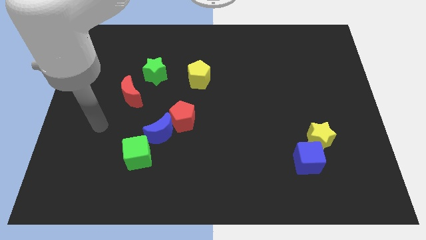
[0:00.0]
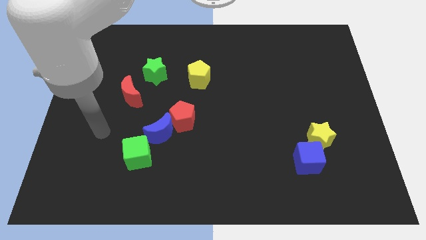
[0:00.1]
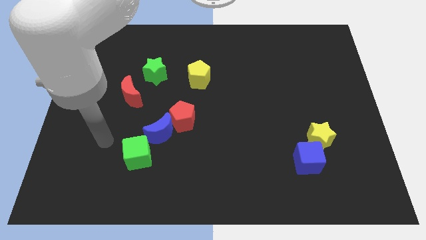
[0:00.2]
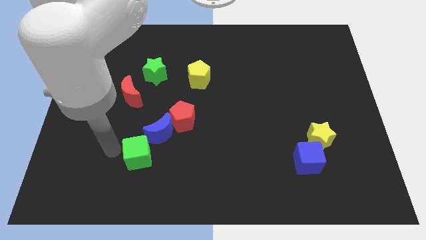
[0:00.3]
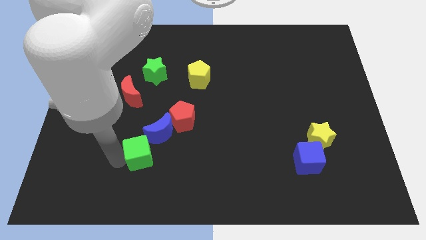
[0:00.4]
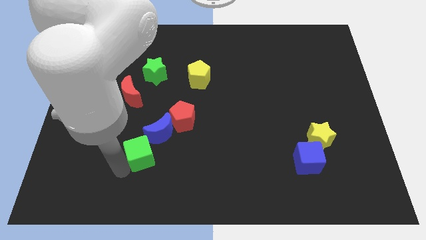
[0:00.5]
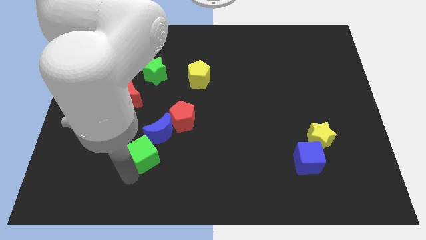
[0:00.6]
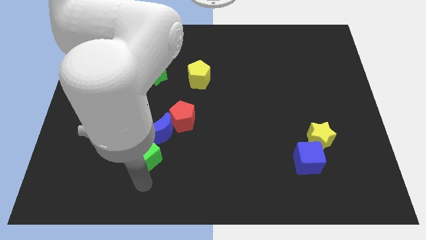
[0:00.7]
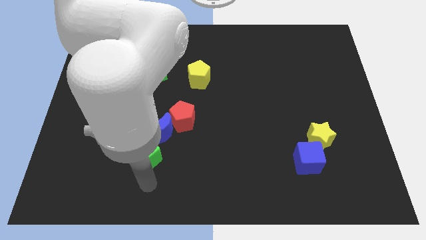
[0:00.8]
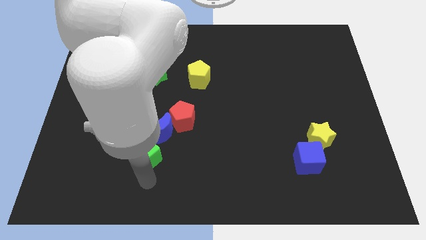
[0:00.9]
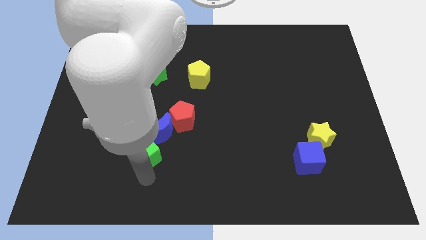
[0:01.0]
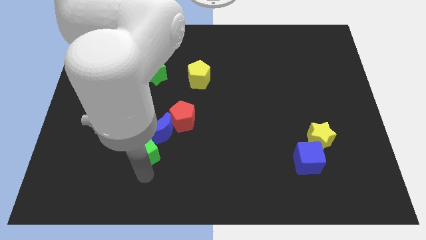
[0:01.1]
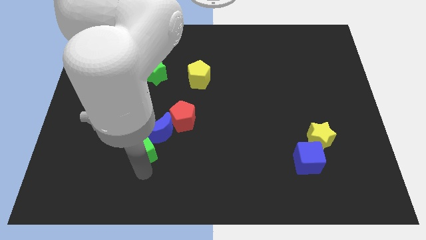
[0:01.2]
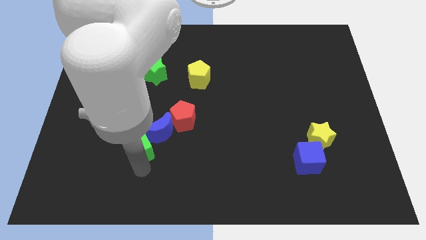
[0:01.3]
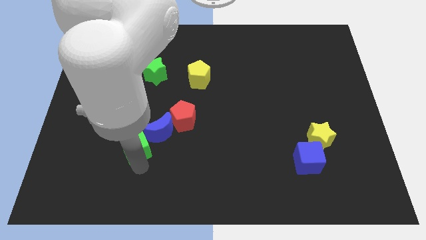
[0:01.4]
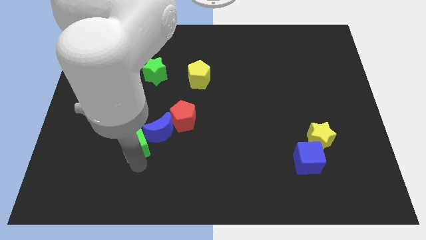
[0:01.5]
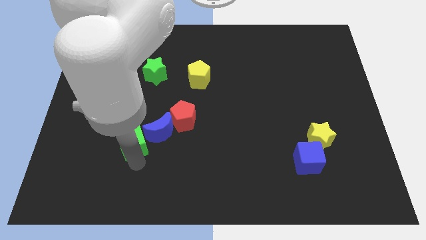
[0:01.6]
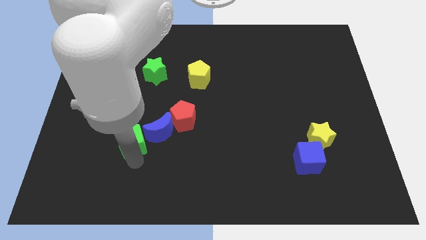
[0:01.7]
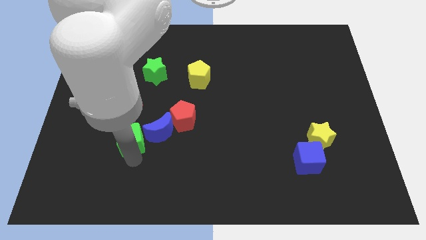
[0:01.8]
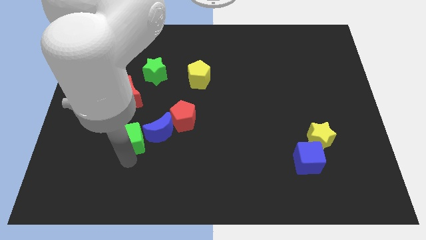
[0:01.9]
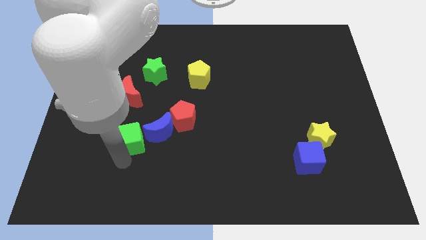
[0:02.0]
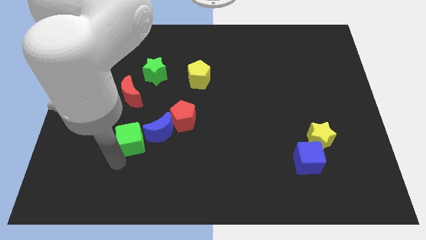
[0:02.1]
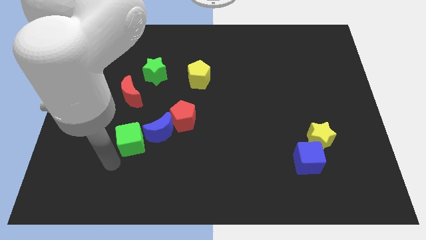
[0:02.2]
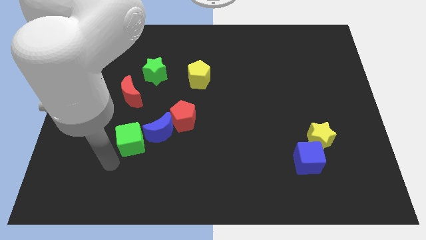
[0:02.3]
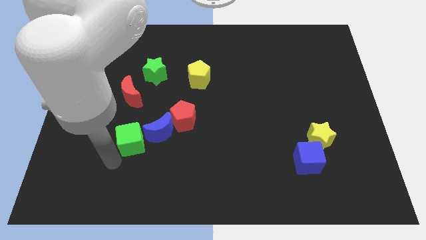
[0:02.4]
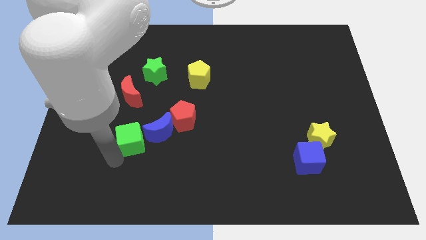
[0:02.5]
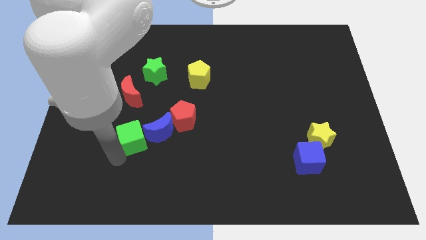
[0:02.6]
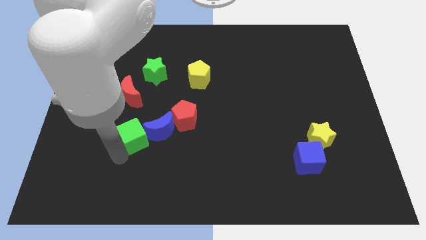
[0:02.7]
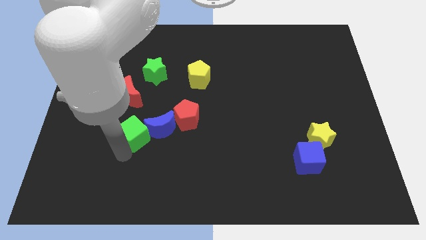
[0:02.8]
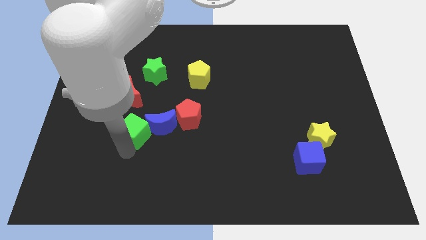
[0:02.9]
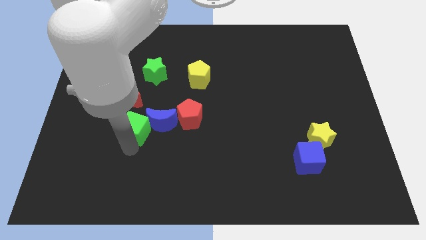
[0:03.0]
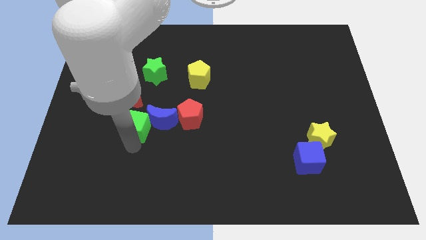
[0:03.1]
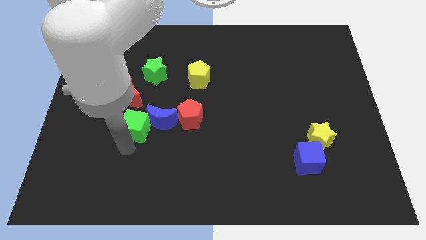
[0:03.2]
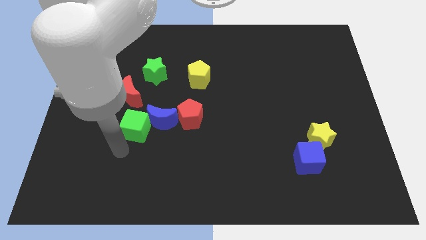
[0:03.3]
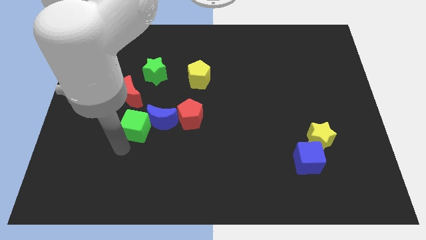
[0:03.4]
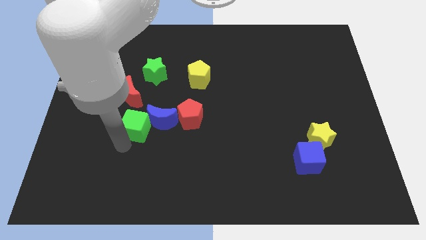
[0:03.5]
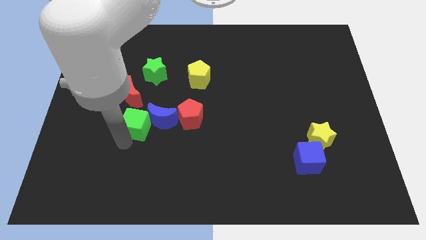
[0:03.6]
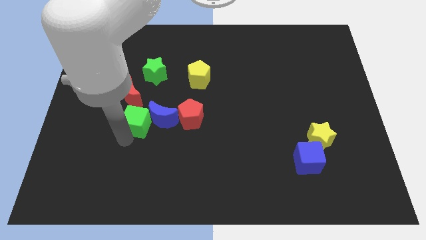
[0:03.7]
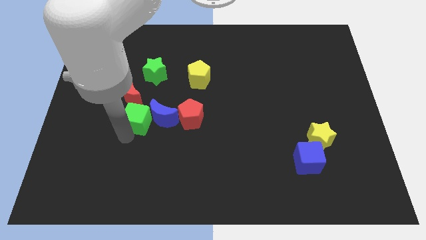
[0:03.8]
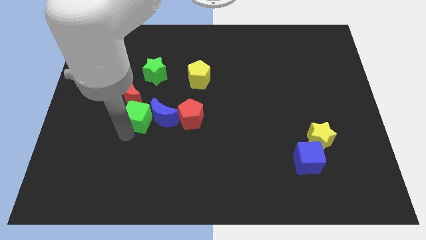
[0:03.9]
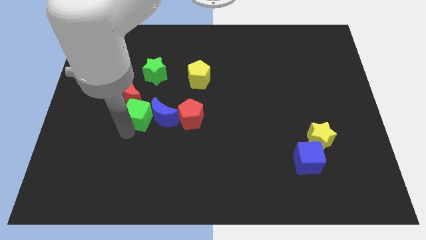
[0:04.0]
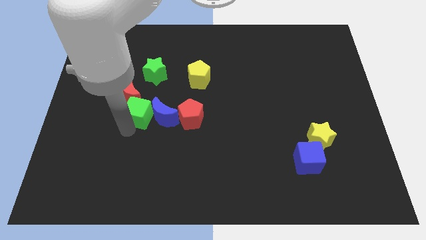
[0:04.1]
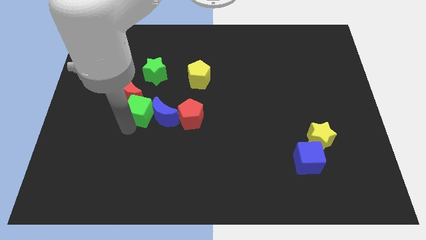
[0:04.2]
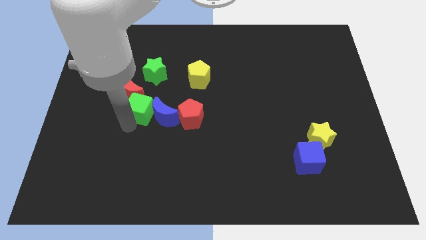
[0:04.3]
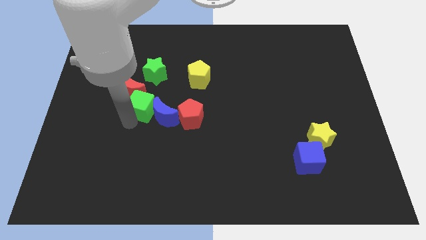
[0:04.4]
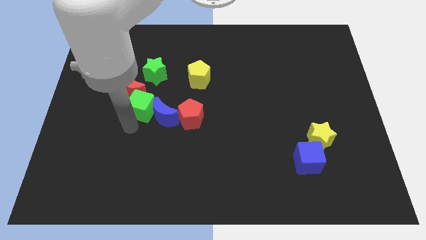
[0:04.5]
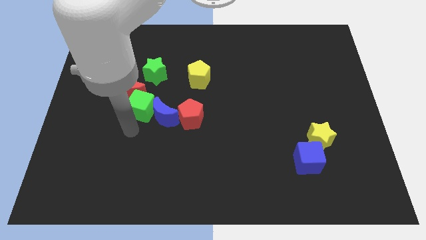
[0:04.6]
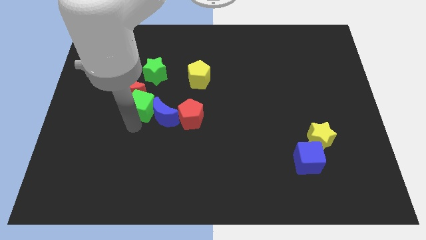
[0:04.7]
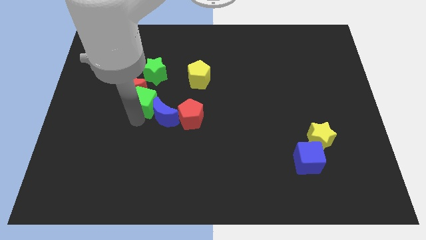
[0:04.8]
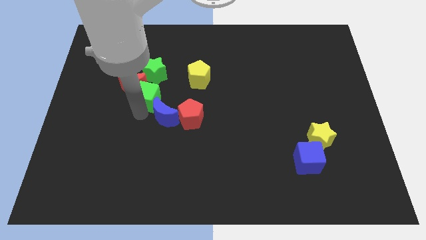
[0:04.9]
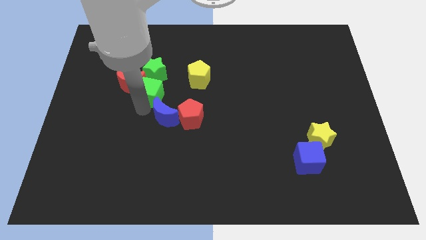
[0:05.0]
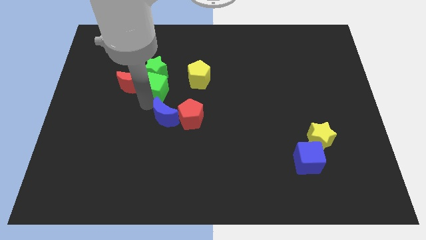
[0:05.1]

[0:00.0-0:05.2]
move the green cube close to the green star

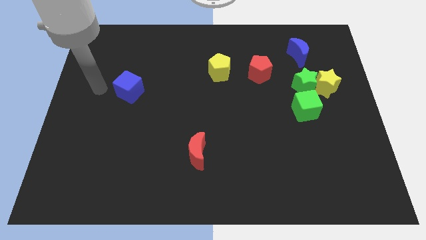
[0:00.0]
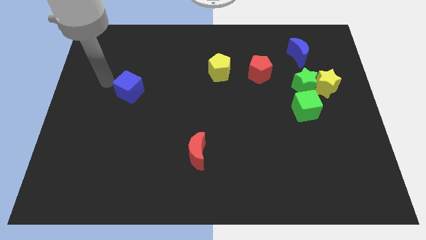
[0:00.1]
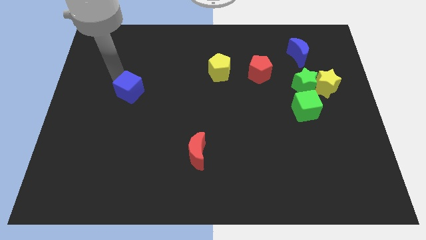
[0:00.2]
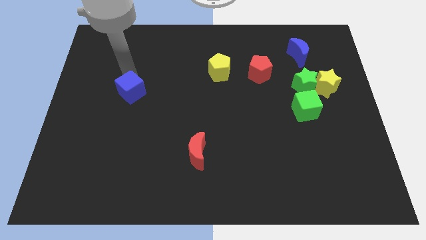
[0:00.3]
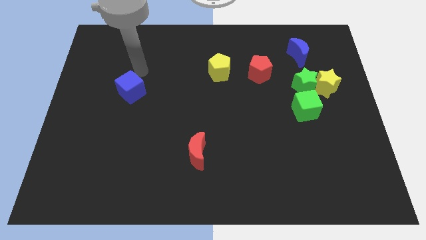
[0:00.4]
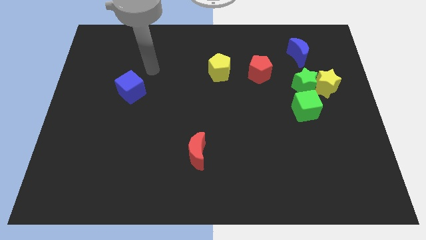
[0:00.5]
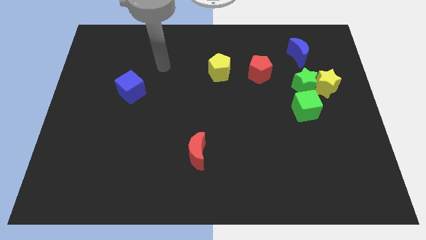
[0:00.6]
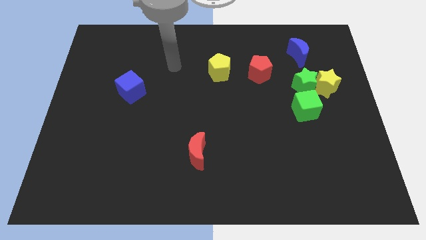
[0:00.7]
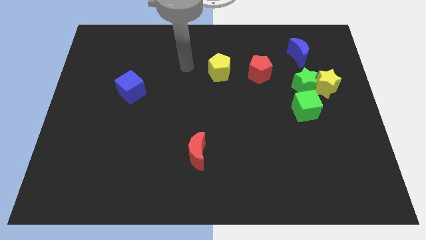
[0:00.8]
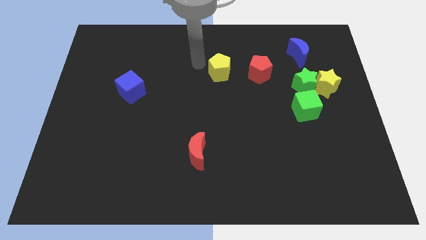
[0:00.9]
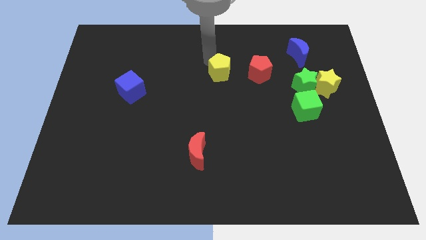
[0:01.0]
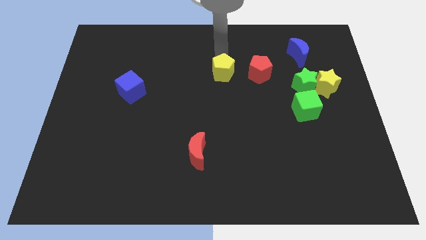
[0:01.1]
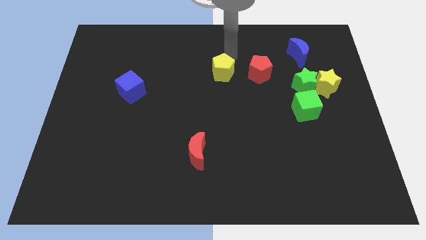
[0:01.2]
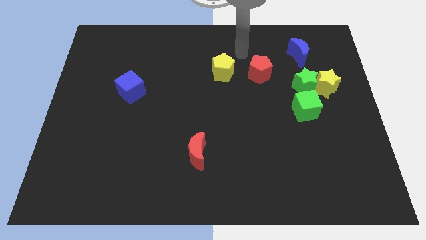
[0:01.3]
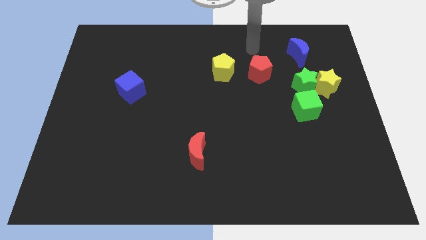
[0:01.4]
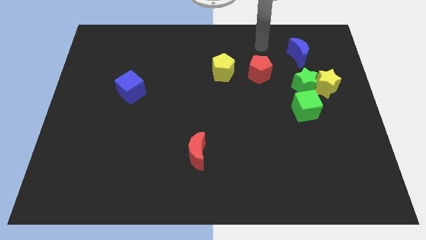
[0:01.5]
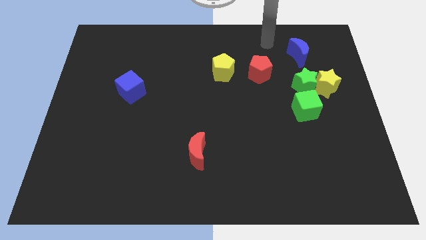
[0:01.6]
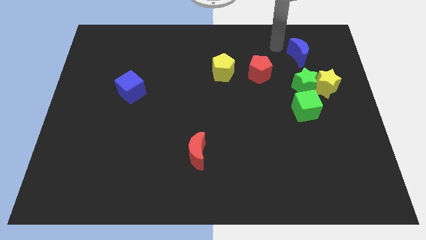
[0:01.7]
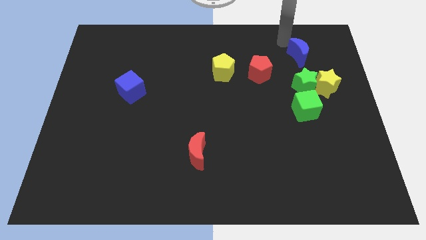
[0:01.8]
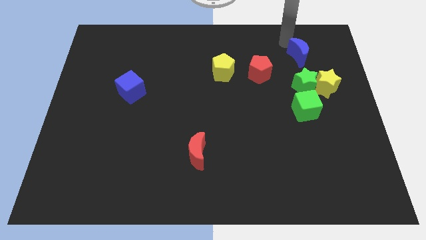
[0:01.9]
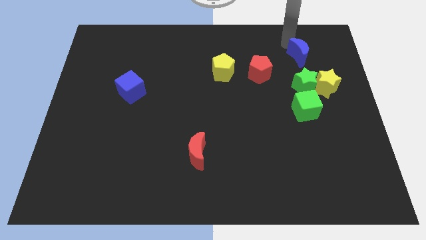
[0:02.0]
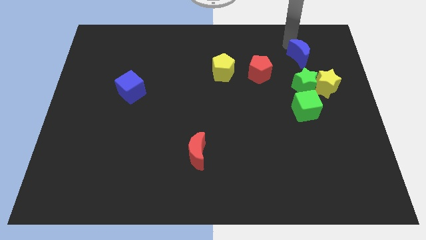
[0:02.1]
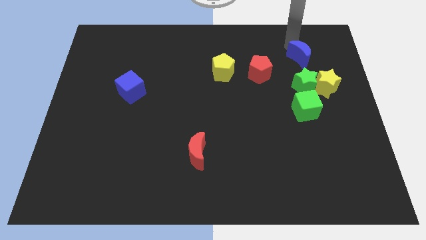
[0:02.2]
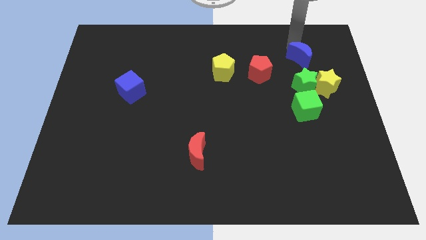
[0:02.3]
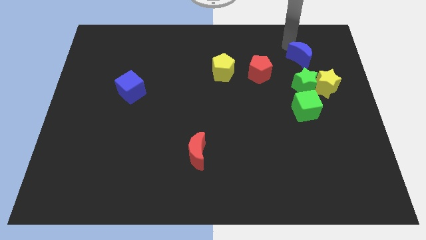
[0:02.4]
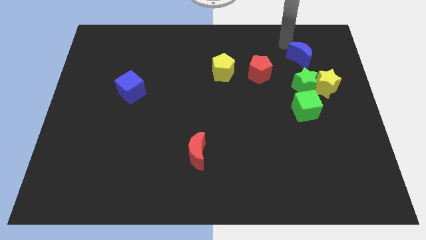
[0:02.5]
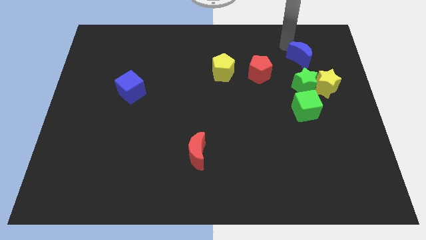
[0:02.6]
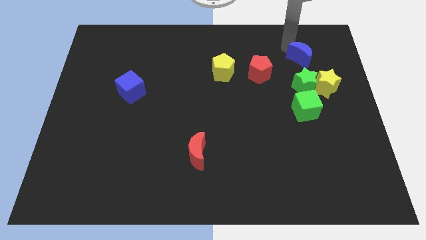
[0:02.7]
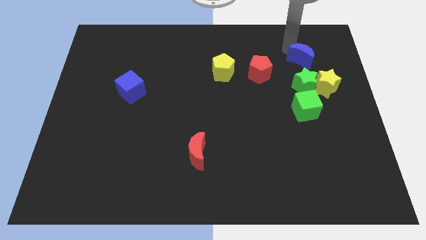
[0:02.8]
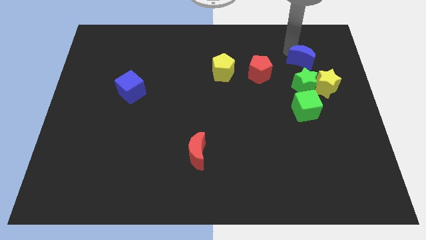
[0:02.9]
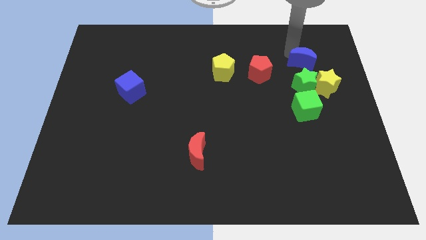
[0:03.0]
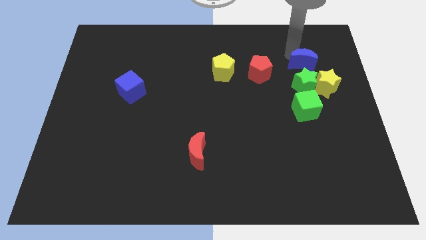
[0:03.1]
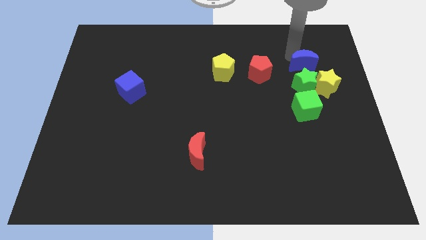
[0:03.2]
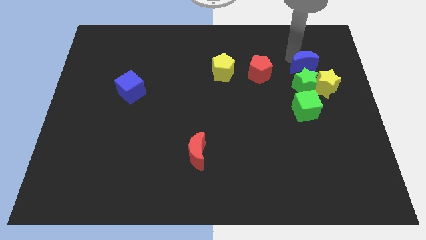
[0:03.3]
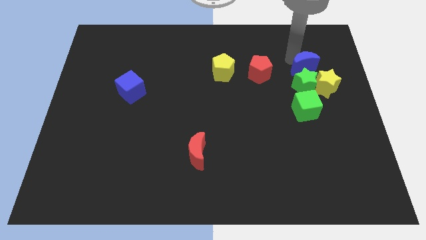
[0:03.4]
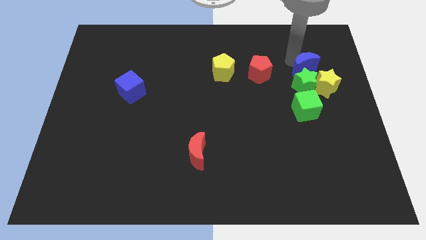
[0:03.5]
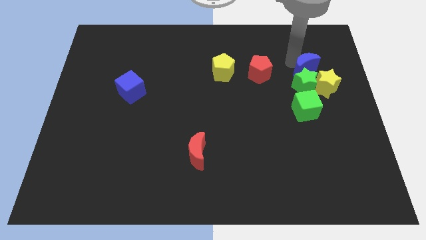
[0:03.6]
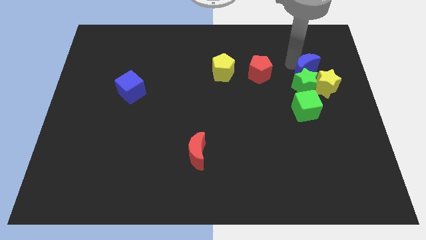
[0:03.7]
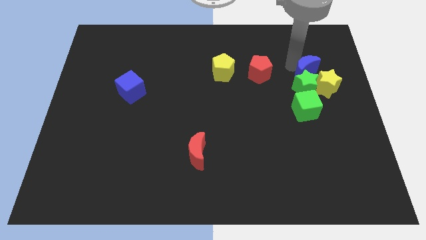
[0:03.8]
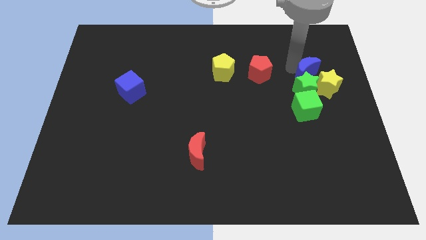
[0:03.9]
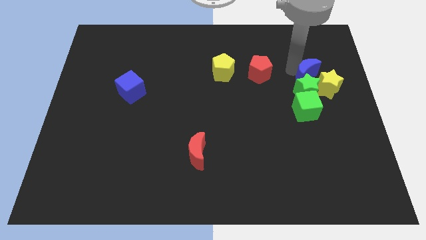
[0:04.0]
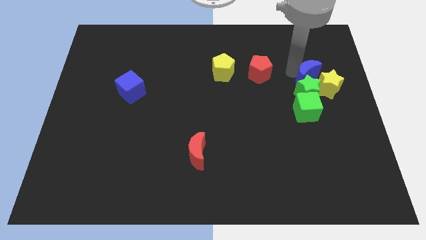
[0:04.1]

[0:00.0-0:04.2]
slide the blue moon next to the yellow star
